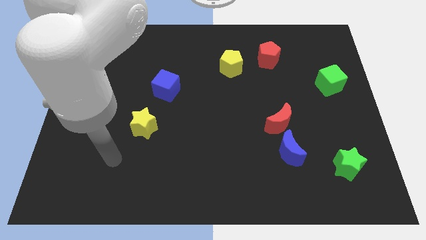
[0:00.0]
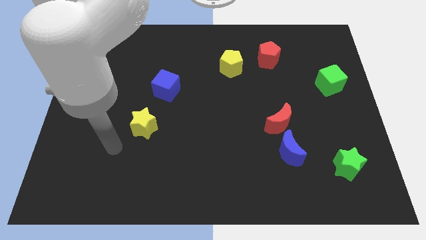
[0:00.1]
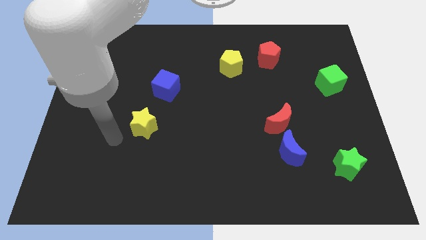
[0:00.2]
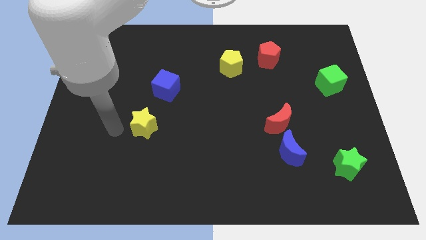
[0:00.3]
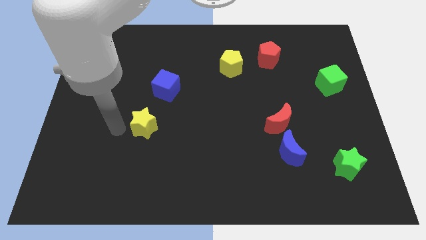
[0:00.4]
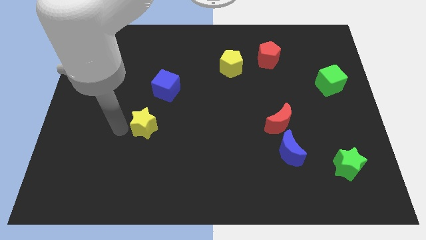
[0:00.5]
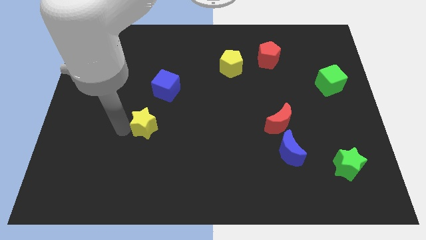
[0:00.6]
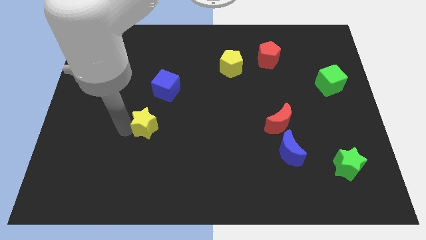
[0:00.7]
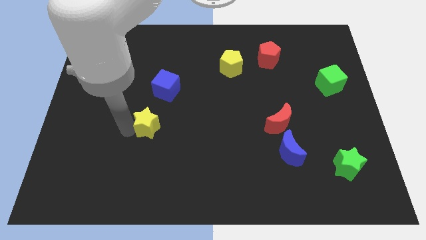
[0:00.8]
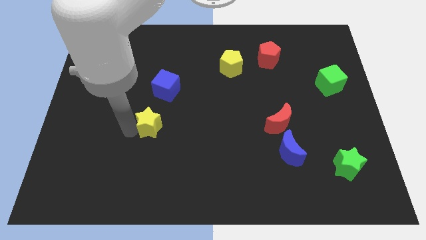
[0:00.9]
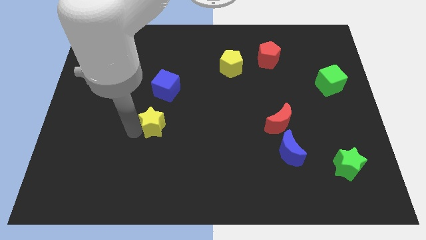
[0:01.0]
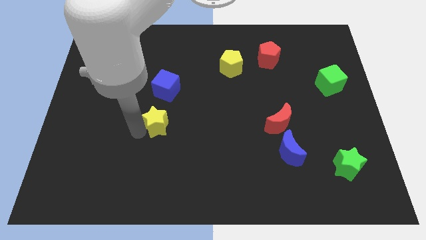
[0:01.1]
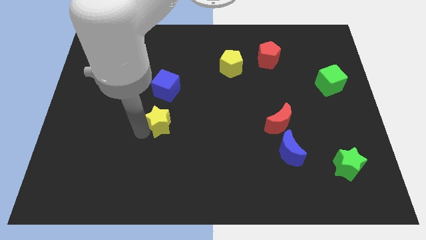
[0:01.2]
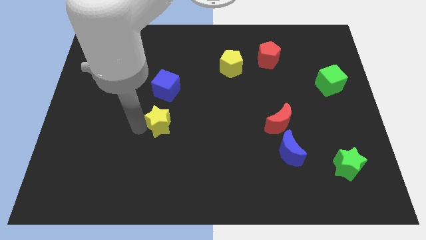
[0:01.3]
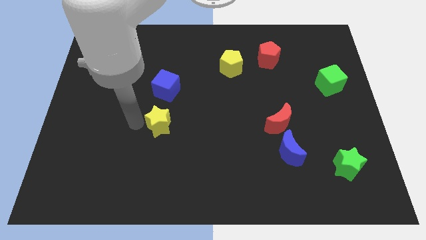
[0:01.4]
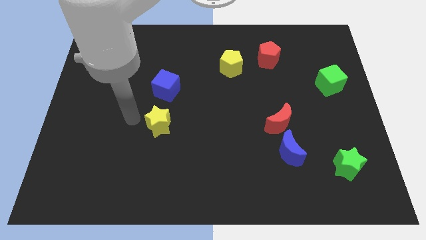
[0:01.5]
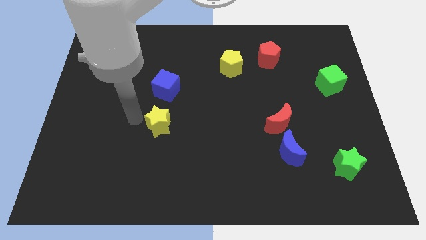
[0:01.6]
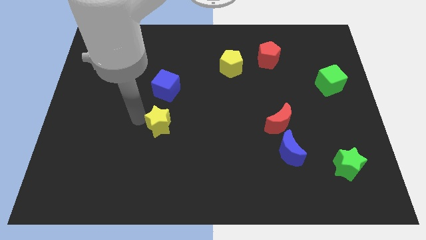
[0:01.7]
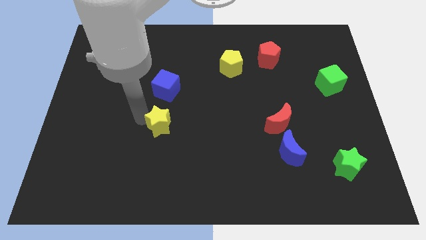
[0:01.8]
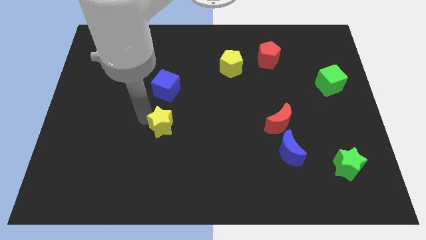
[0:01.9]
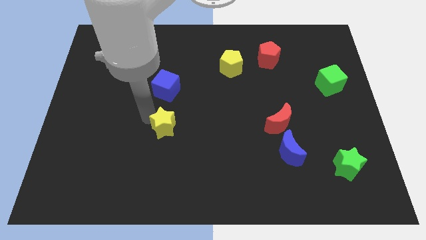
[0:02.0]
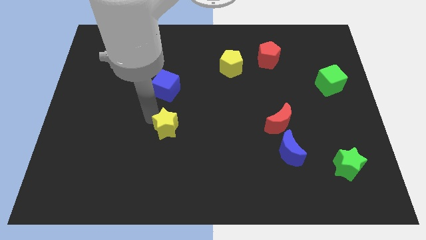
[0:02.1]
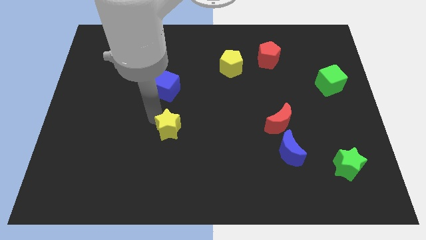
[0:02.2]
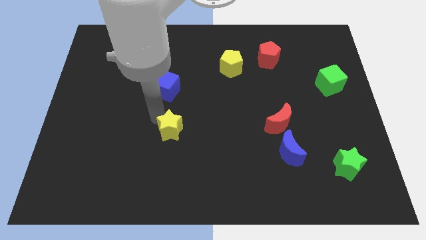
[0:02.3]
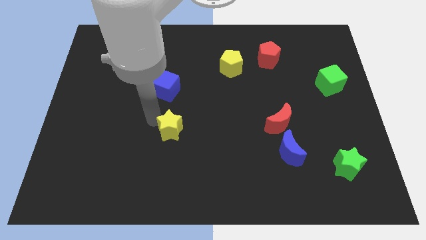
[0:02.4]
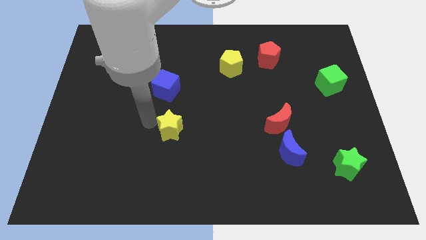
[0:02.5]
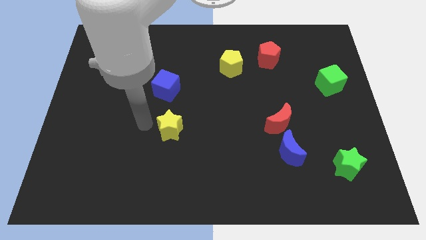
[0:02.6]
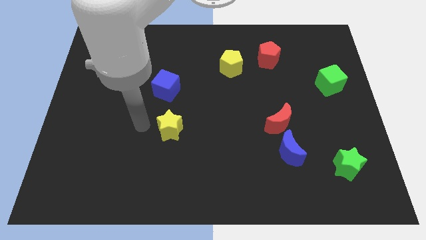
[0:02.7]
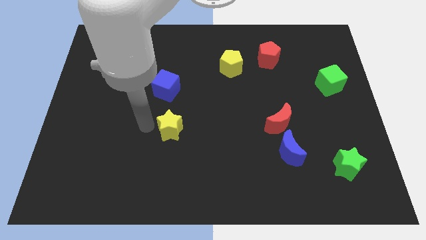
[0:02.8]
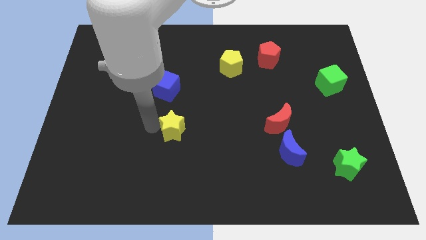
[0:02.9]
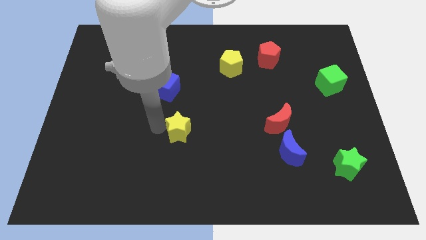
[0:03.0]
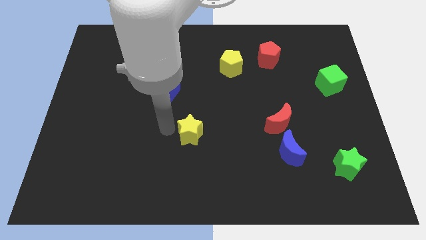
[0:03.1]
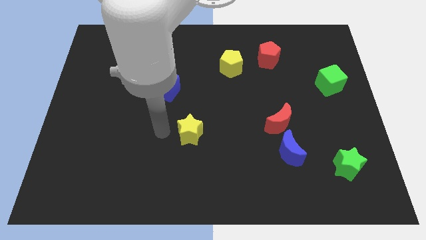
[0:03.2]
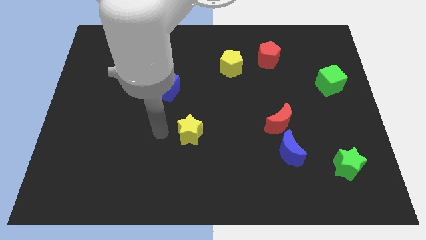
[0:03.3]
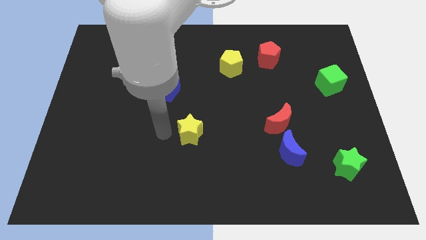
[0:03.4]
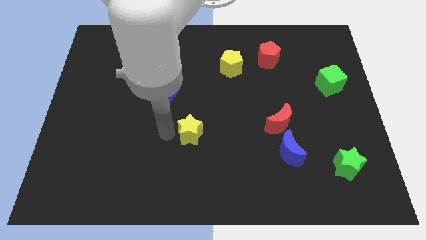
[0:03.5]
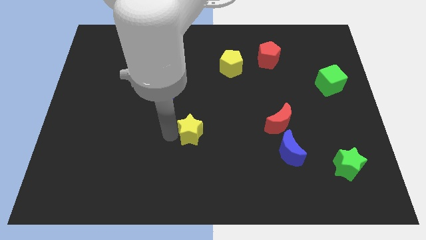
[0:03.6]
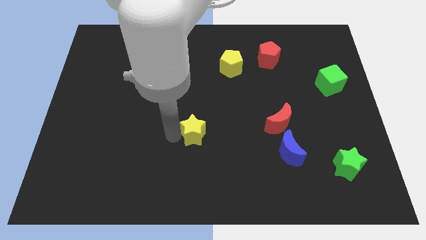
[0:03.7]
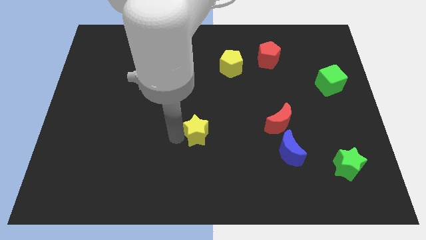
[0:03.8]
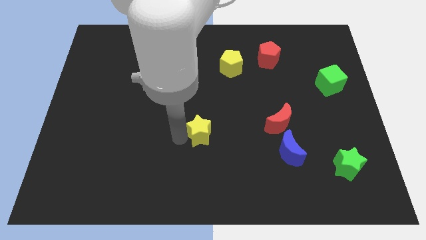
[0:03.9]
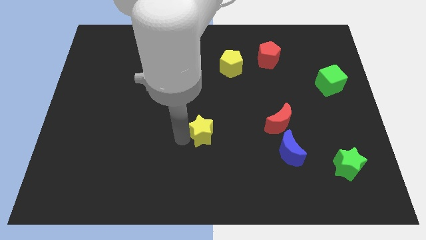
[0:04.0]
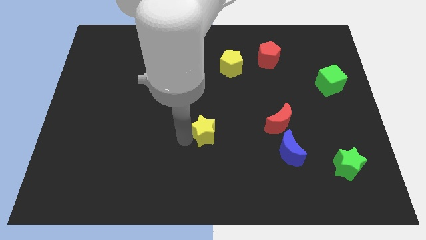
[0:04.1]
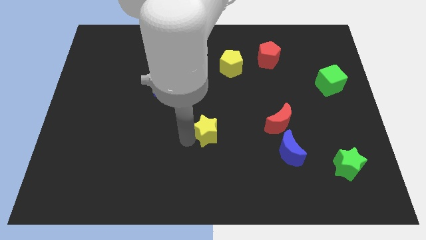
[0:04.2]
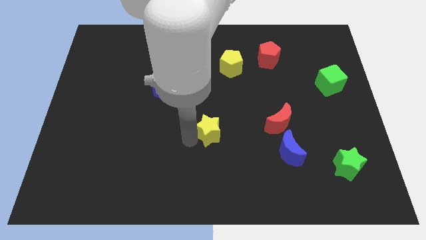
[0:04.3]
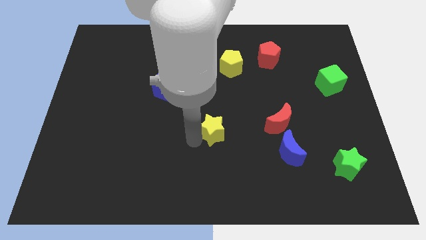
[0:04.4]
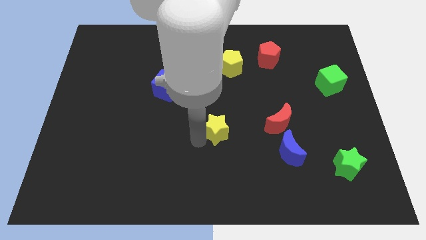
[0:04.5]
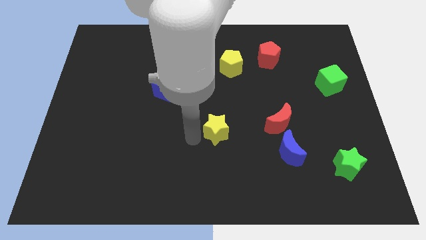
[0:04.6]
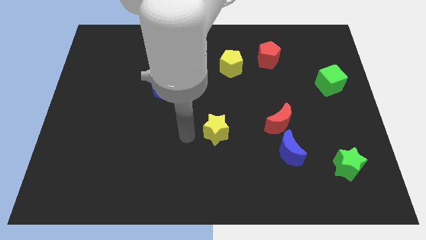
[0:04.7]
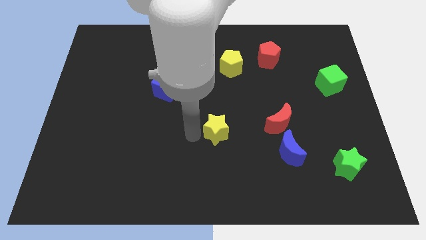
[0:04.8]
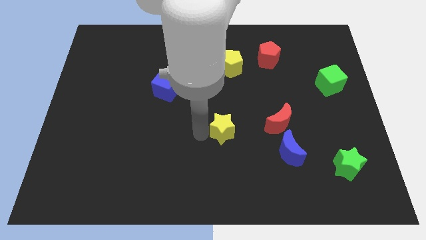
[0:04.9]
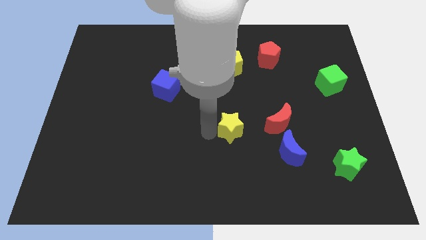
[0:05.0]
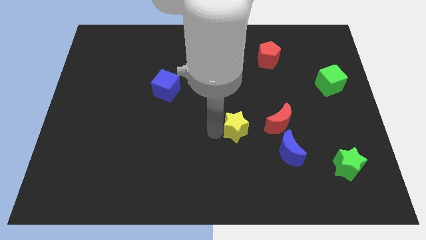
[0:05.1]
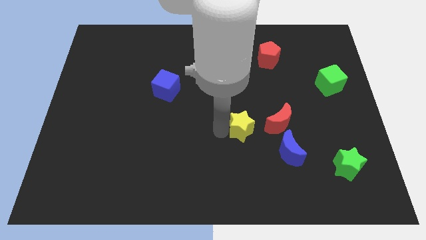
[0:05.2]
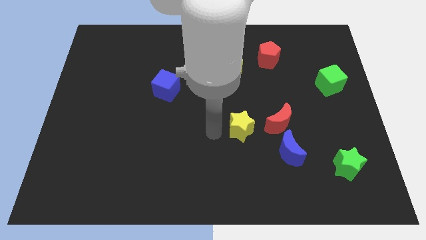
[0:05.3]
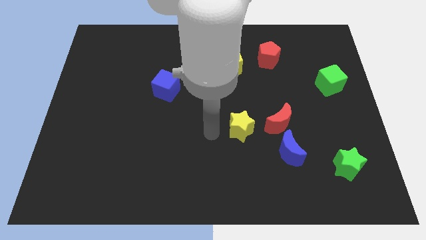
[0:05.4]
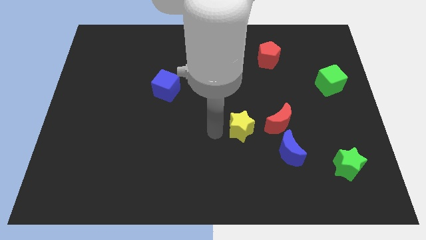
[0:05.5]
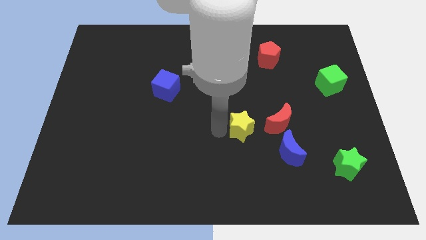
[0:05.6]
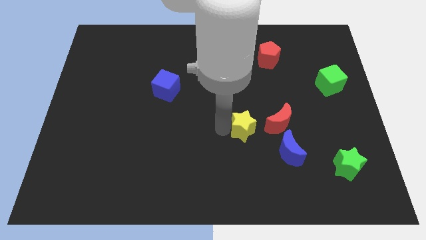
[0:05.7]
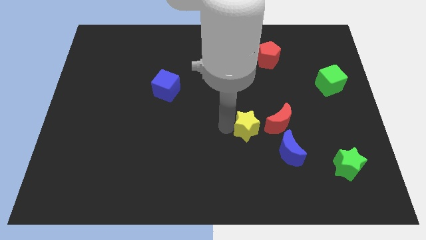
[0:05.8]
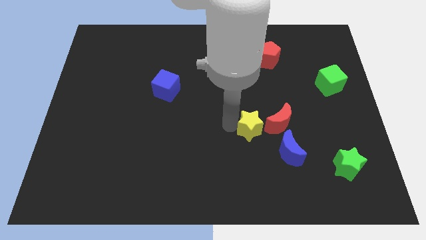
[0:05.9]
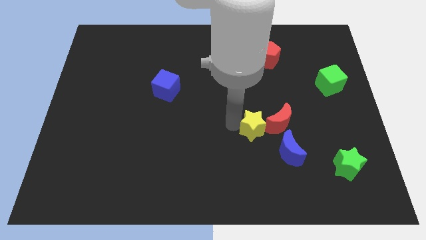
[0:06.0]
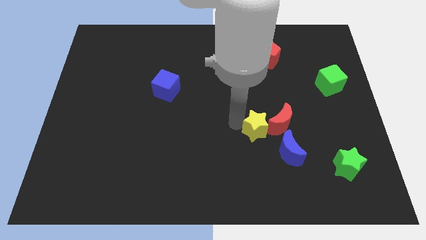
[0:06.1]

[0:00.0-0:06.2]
put the yellow star to the red moon

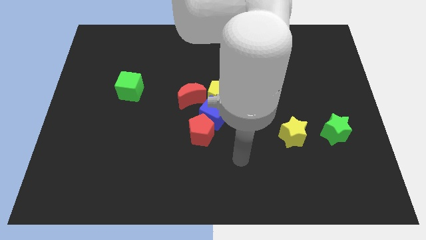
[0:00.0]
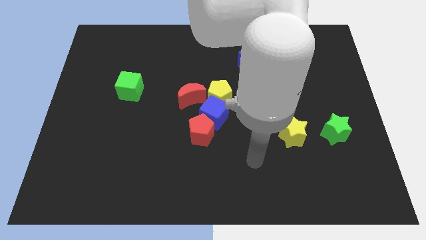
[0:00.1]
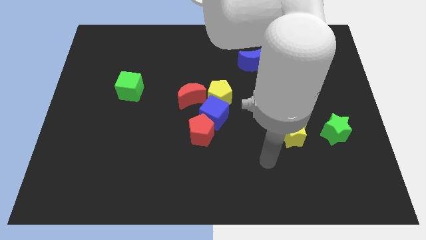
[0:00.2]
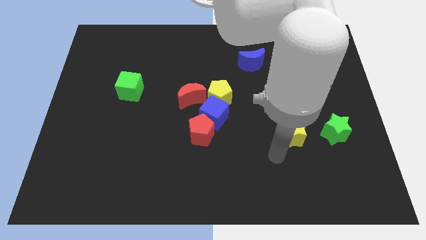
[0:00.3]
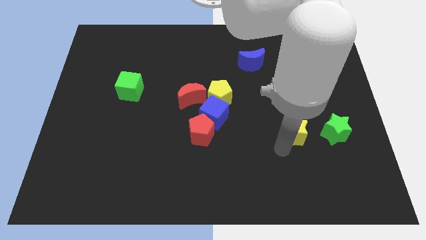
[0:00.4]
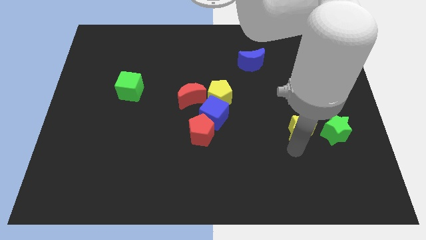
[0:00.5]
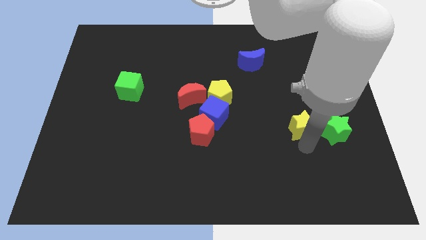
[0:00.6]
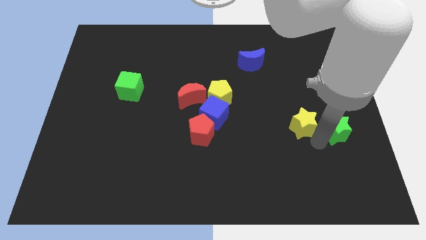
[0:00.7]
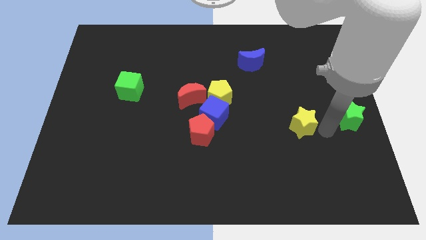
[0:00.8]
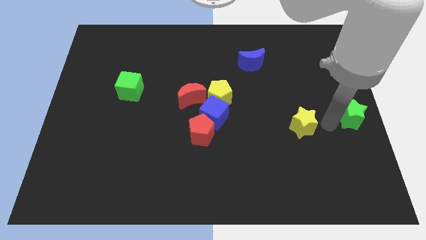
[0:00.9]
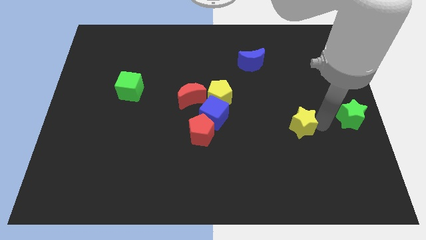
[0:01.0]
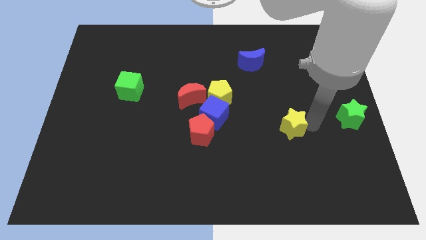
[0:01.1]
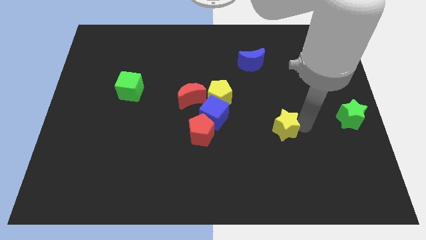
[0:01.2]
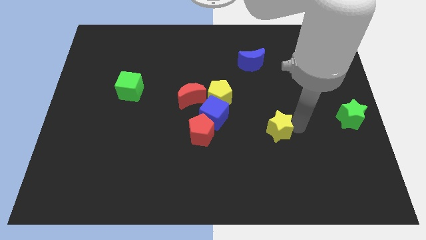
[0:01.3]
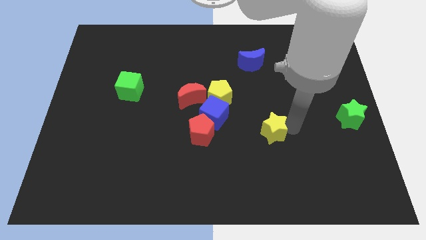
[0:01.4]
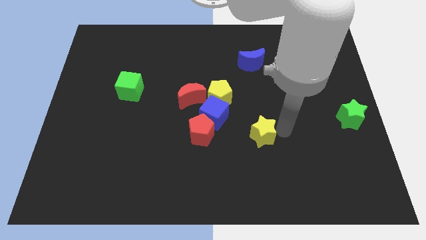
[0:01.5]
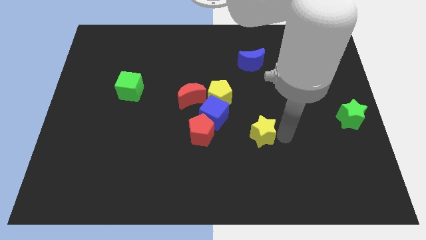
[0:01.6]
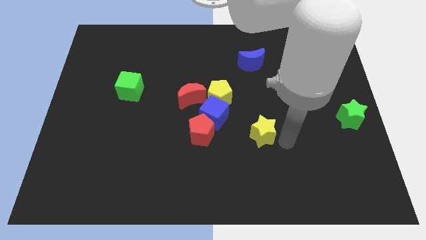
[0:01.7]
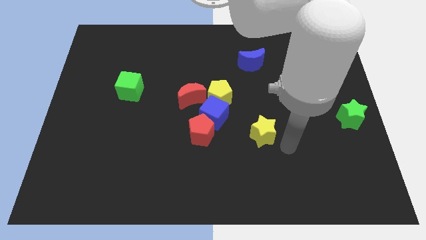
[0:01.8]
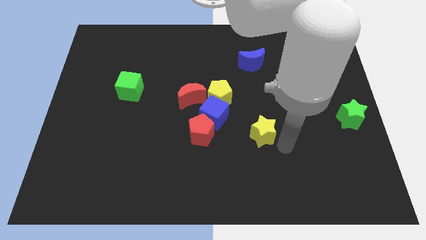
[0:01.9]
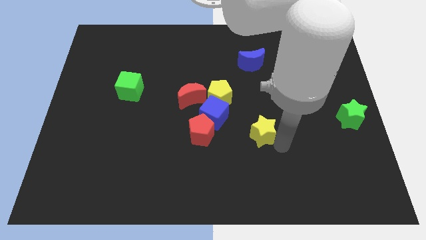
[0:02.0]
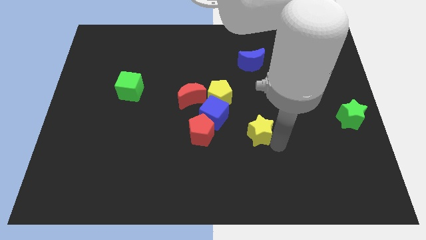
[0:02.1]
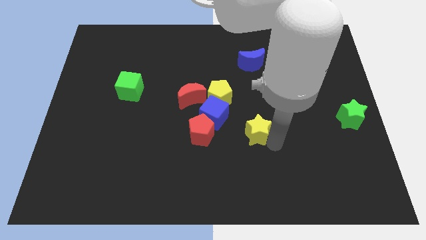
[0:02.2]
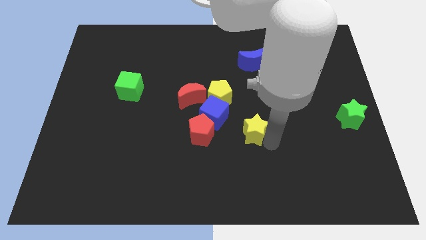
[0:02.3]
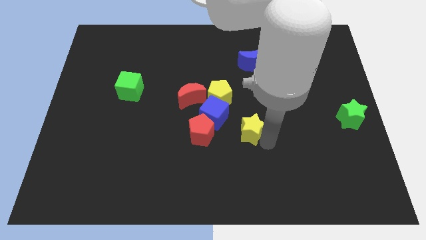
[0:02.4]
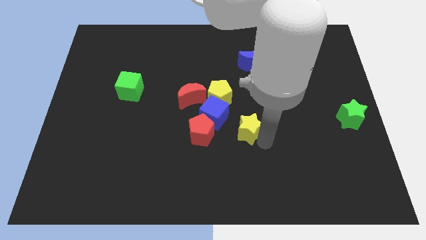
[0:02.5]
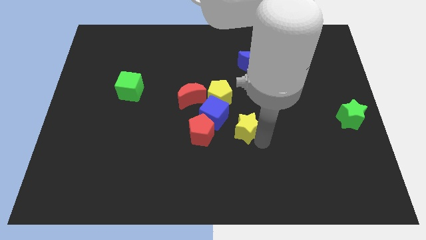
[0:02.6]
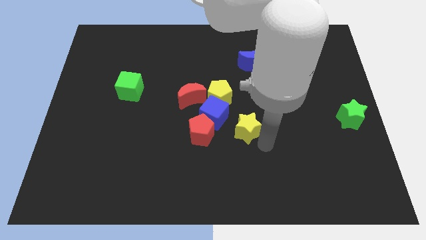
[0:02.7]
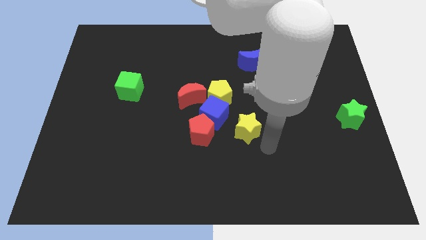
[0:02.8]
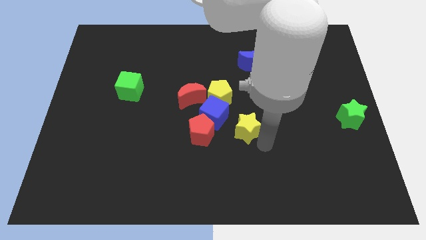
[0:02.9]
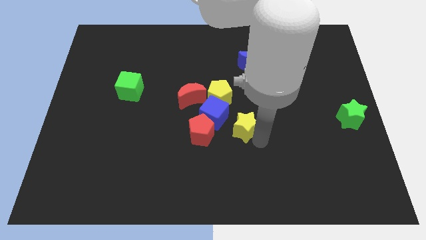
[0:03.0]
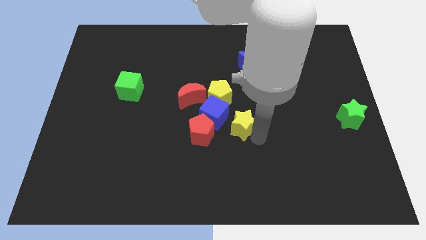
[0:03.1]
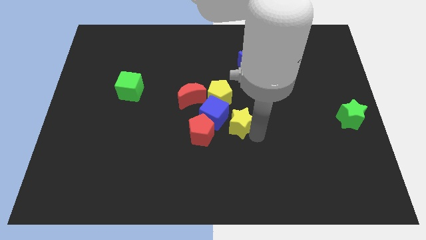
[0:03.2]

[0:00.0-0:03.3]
move the yellow star towards the blue cube
